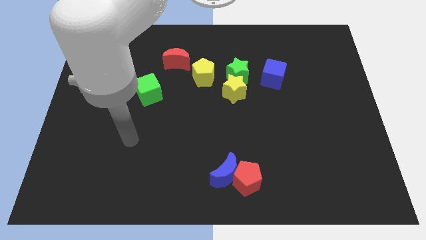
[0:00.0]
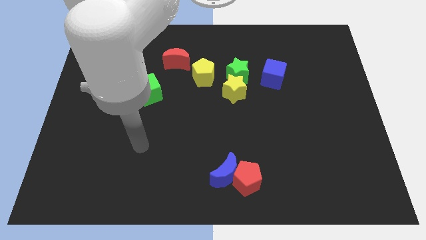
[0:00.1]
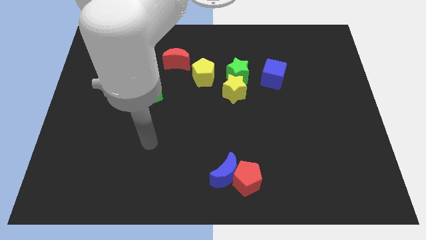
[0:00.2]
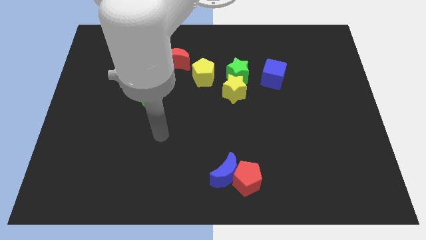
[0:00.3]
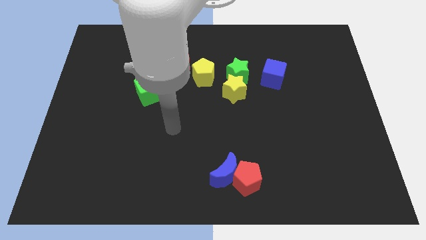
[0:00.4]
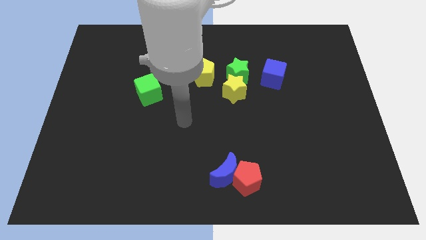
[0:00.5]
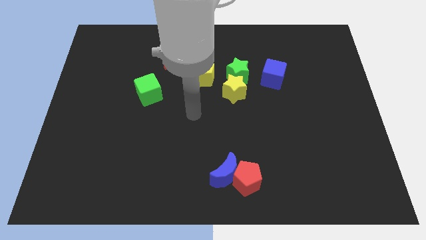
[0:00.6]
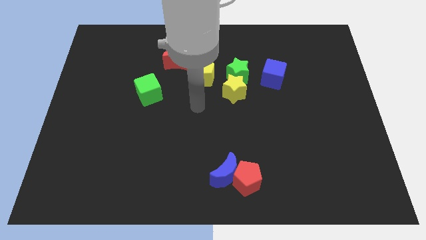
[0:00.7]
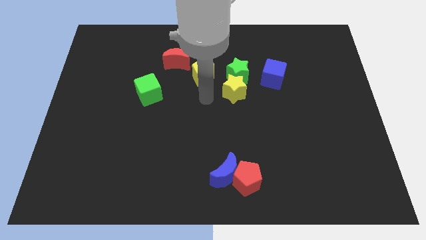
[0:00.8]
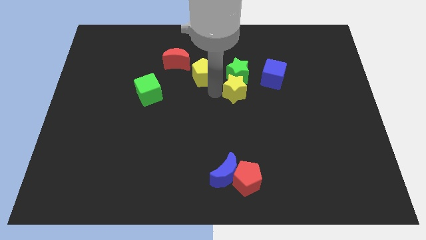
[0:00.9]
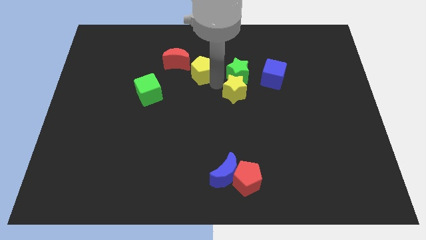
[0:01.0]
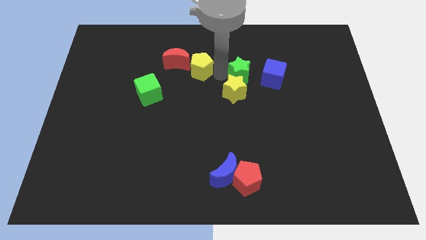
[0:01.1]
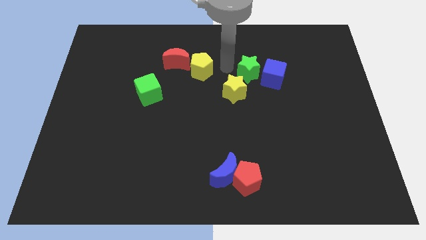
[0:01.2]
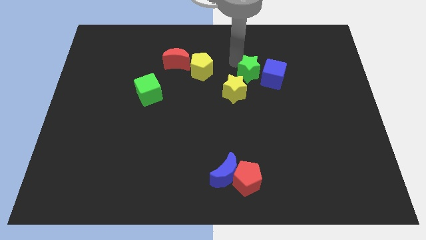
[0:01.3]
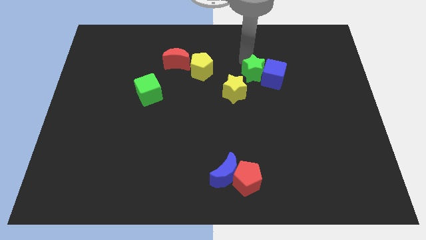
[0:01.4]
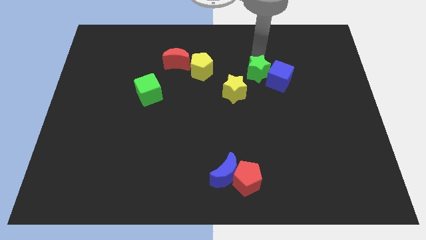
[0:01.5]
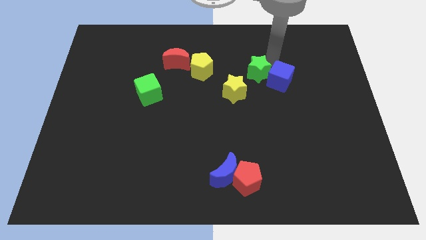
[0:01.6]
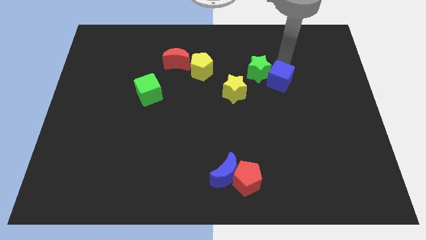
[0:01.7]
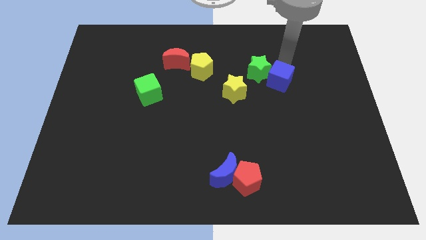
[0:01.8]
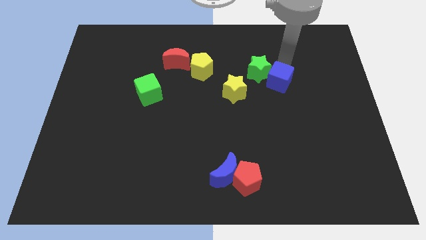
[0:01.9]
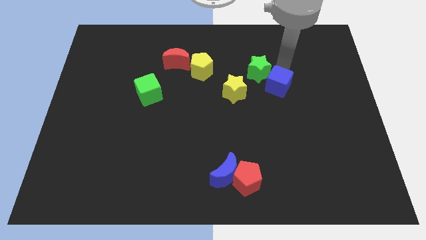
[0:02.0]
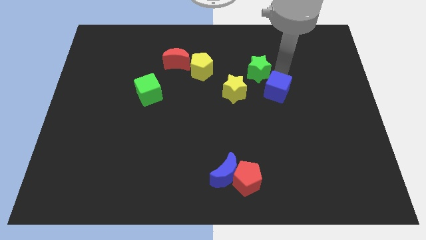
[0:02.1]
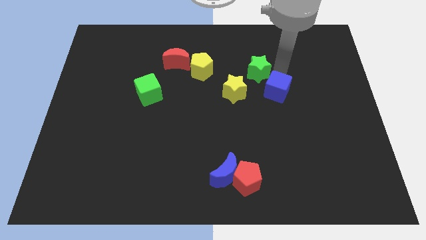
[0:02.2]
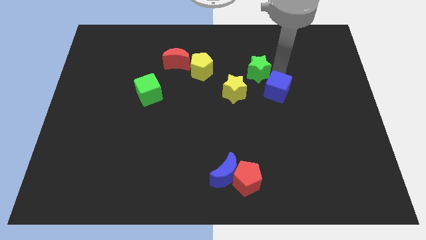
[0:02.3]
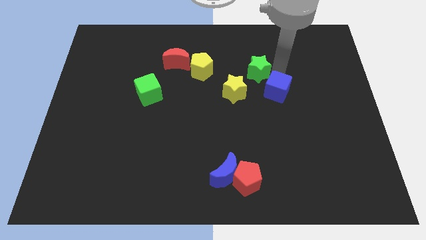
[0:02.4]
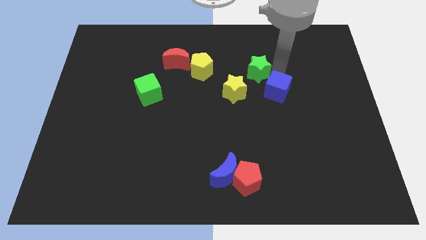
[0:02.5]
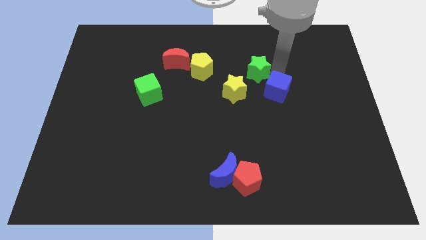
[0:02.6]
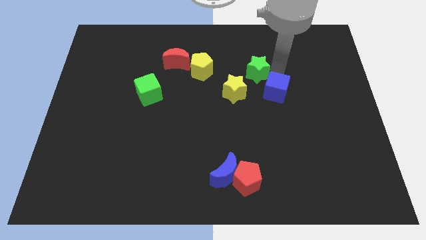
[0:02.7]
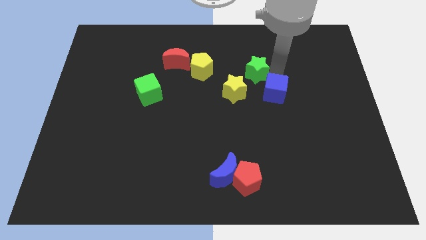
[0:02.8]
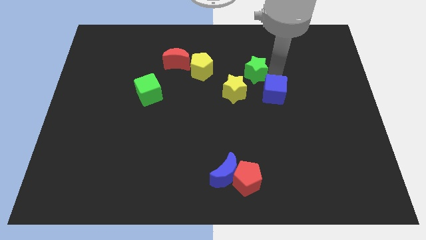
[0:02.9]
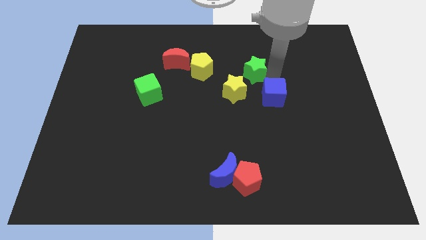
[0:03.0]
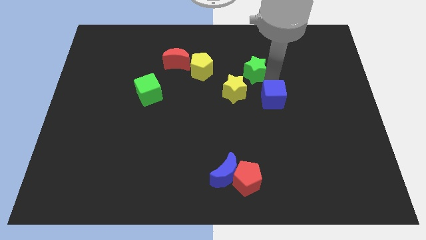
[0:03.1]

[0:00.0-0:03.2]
move the blue cube downwards a little

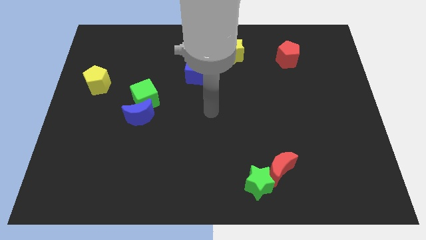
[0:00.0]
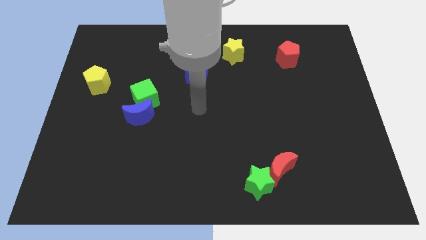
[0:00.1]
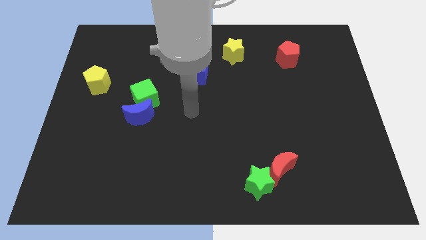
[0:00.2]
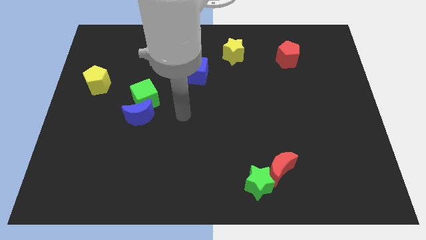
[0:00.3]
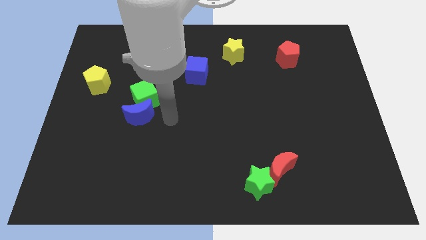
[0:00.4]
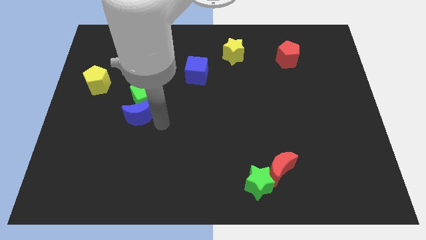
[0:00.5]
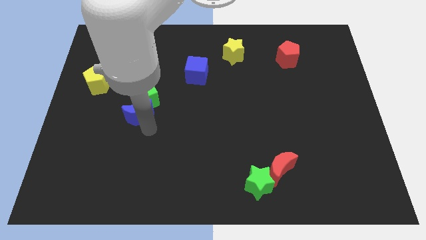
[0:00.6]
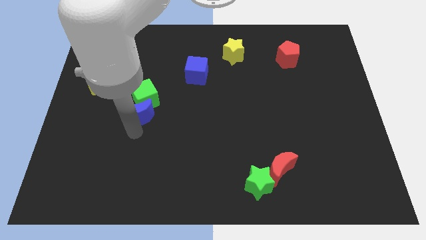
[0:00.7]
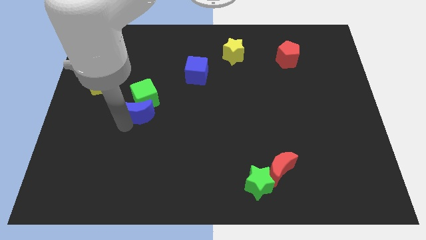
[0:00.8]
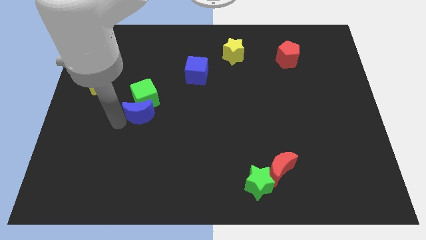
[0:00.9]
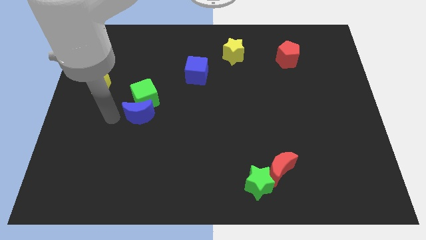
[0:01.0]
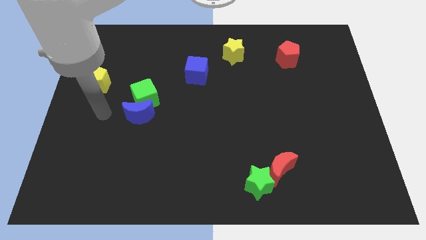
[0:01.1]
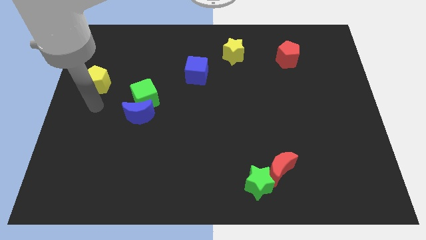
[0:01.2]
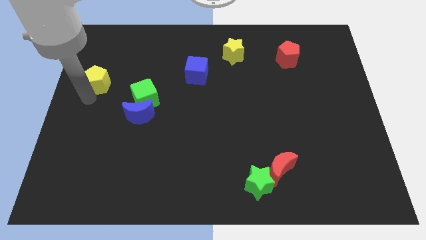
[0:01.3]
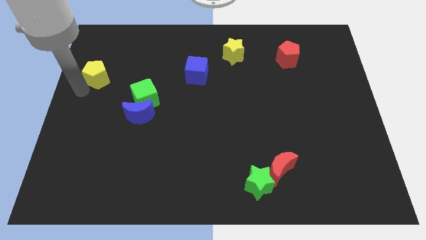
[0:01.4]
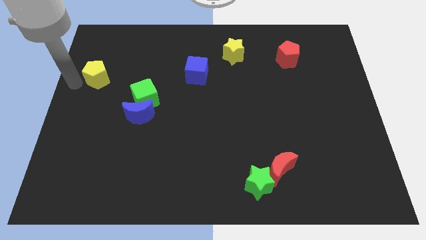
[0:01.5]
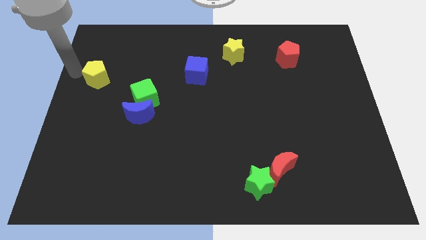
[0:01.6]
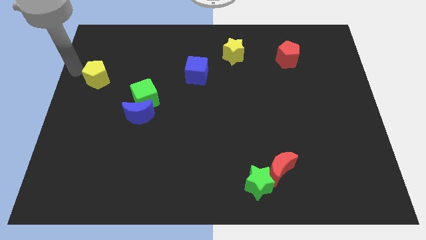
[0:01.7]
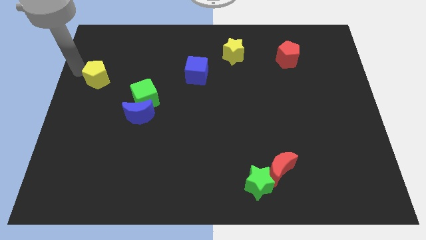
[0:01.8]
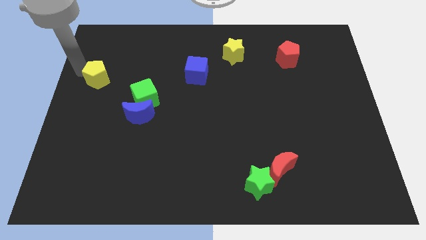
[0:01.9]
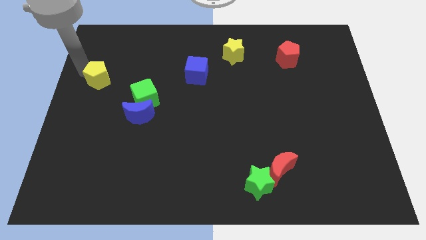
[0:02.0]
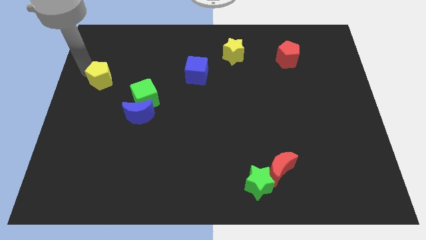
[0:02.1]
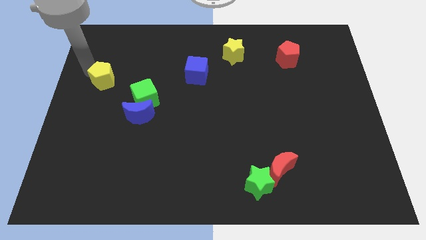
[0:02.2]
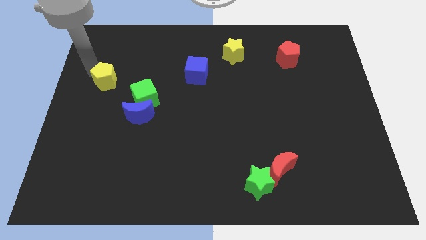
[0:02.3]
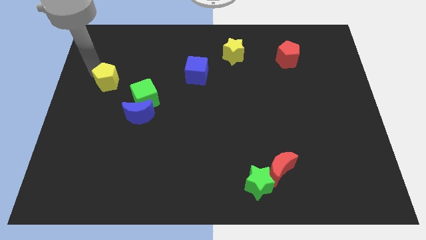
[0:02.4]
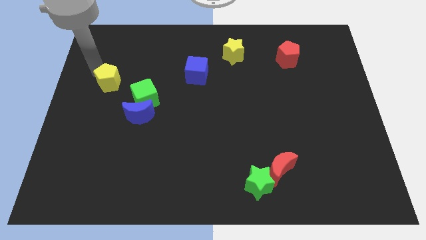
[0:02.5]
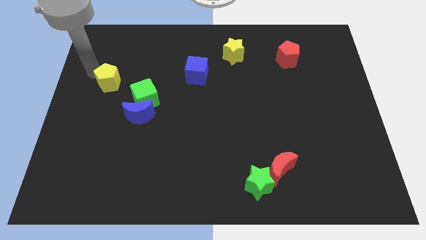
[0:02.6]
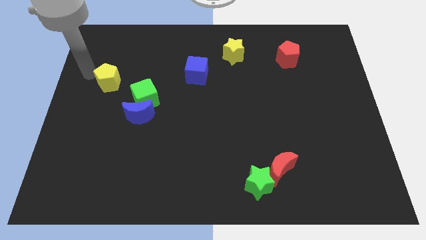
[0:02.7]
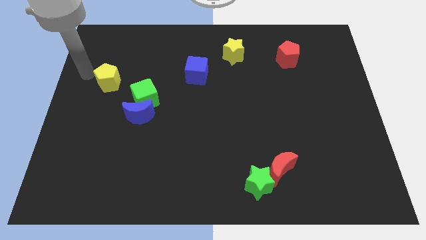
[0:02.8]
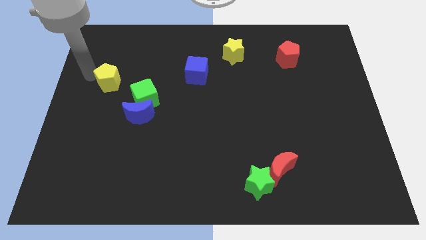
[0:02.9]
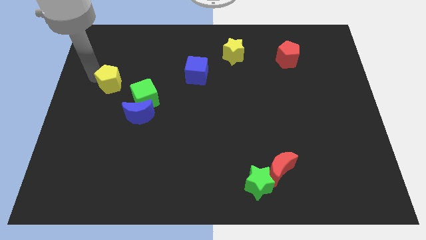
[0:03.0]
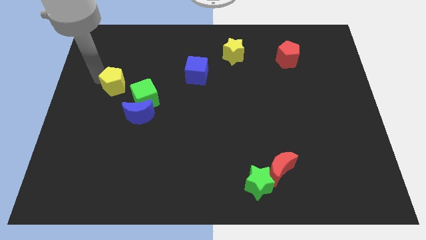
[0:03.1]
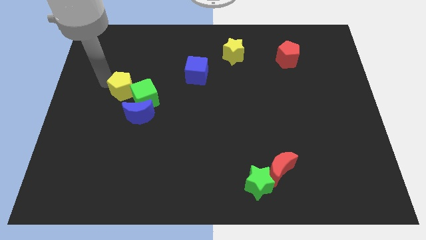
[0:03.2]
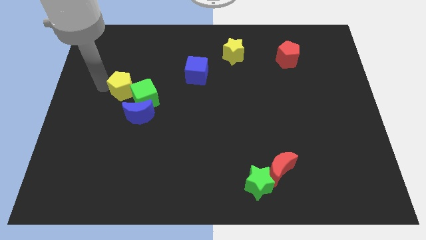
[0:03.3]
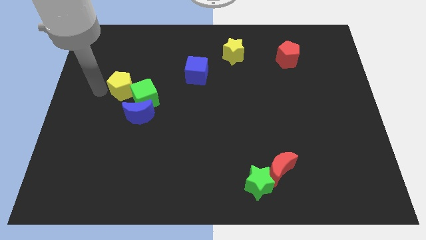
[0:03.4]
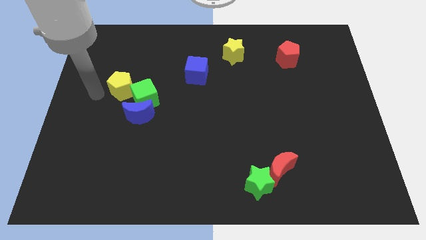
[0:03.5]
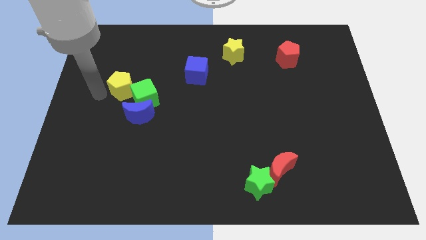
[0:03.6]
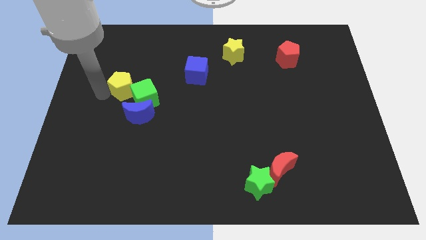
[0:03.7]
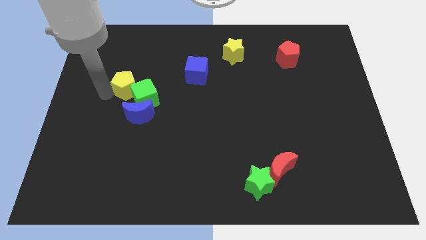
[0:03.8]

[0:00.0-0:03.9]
slightly push the yellow pentagon to the right

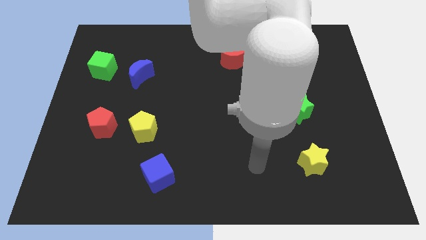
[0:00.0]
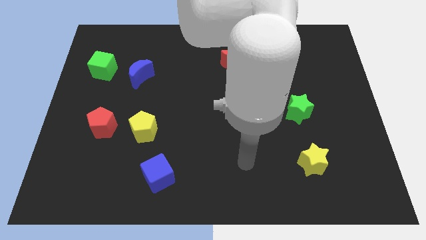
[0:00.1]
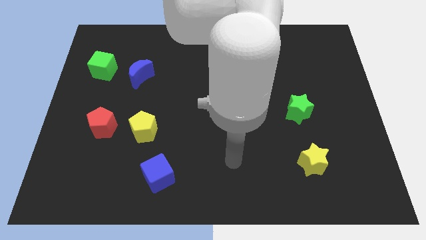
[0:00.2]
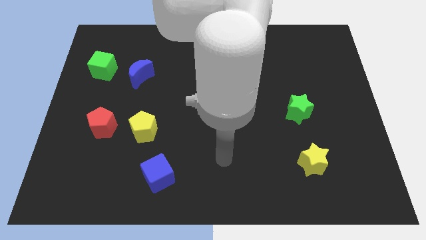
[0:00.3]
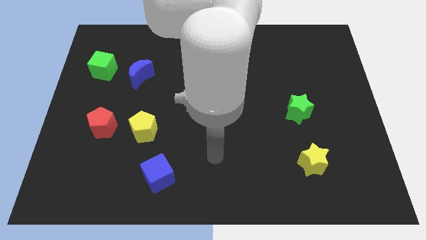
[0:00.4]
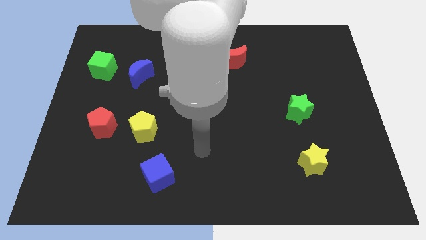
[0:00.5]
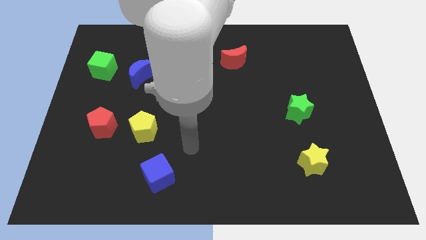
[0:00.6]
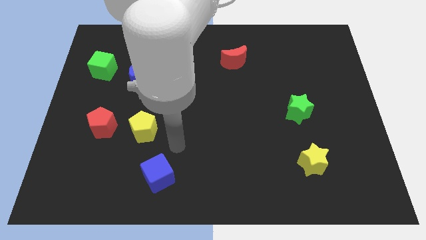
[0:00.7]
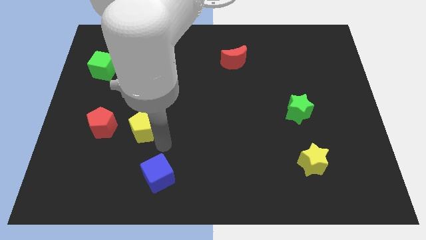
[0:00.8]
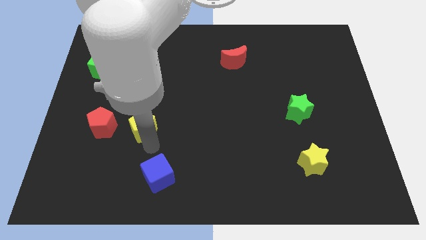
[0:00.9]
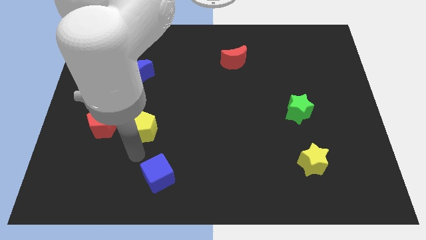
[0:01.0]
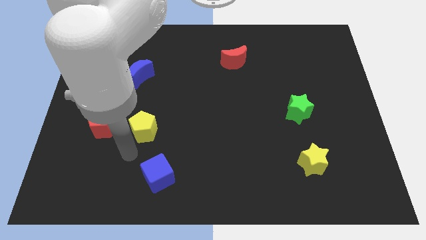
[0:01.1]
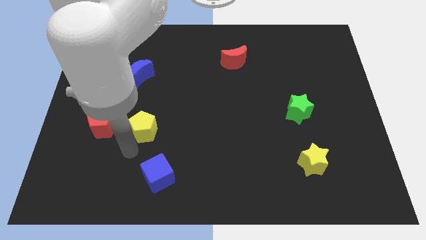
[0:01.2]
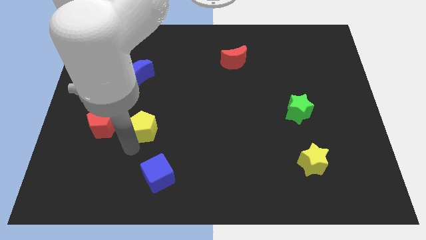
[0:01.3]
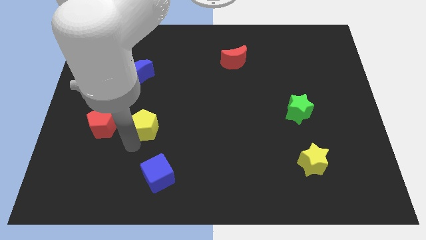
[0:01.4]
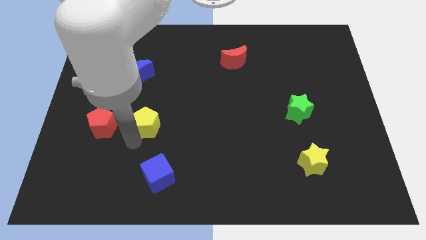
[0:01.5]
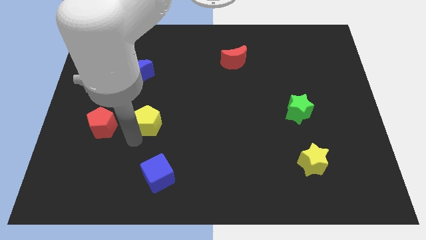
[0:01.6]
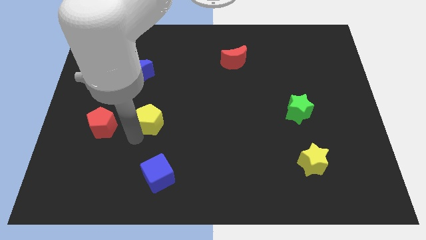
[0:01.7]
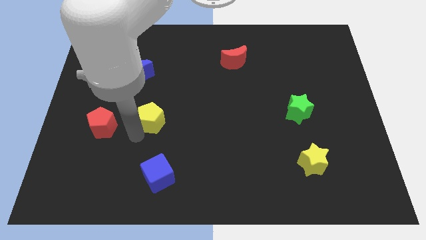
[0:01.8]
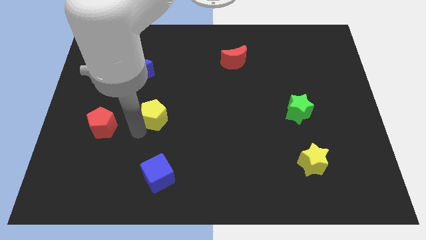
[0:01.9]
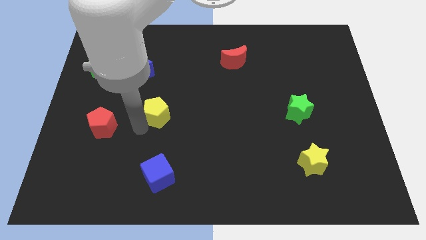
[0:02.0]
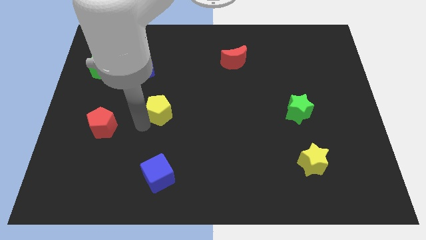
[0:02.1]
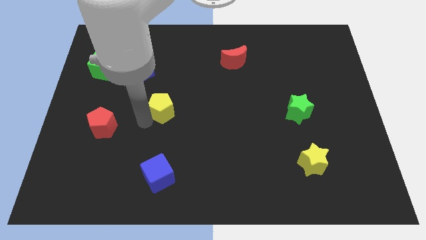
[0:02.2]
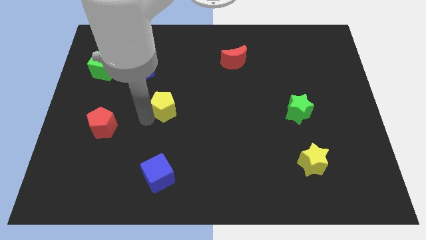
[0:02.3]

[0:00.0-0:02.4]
slightly push the yellow pentagon upwards and right diagonally
